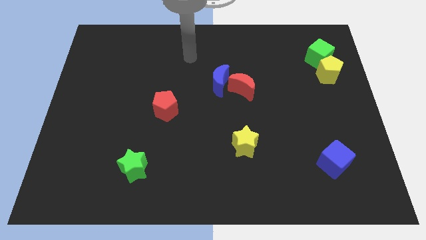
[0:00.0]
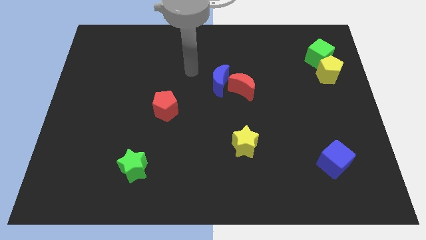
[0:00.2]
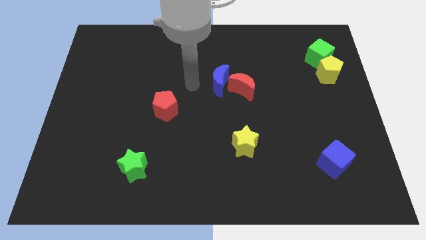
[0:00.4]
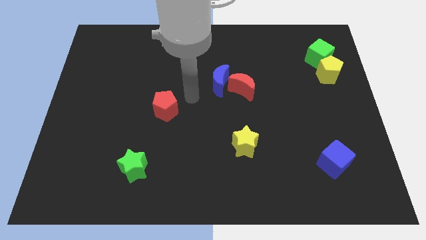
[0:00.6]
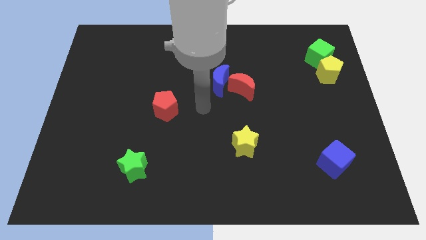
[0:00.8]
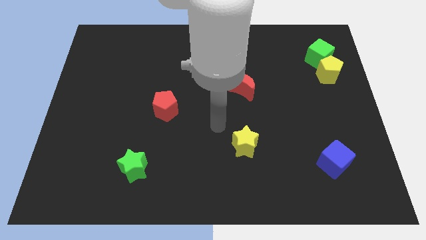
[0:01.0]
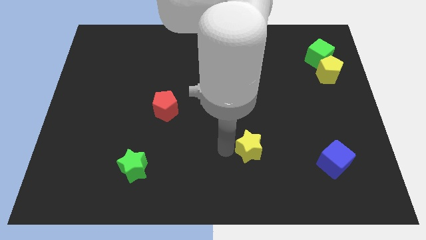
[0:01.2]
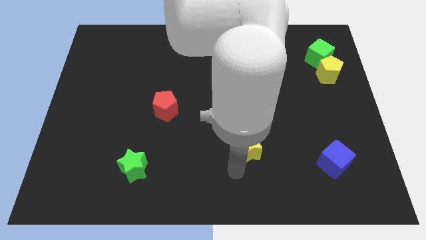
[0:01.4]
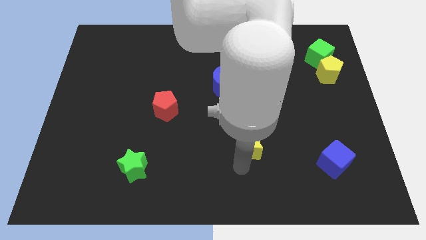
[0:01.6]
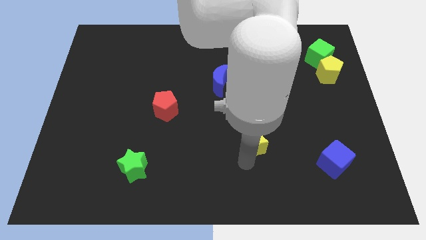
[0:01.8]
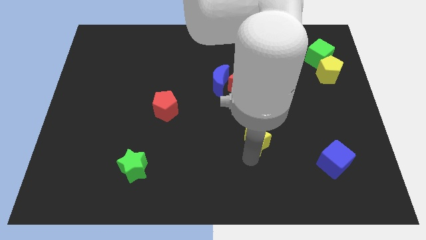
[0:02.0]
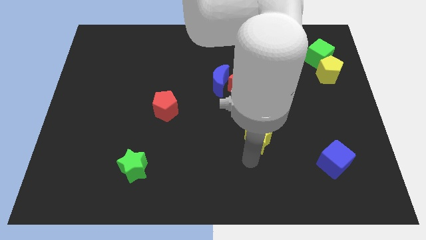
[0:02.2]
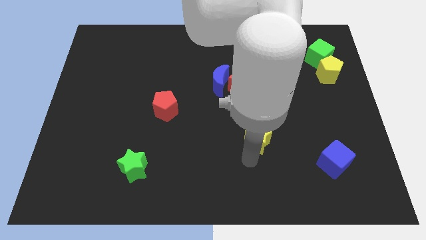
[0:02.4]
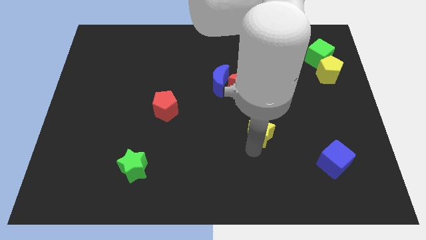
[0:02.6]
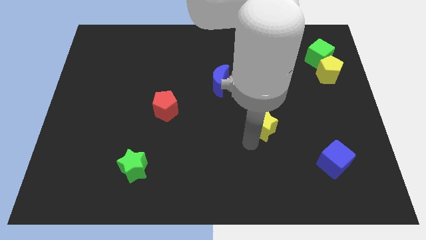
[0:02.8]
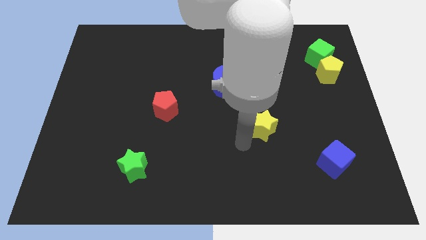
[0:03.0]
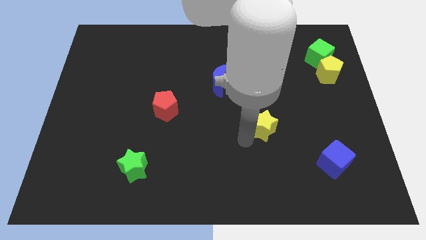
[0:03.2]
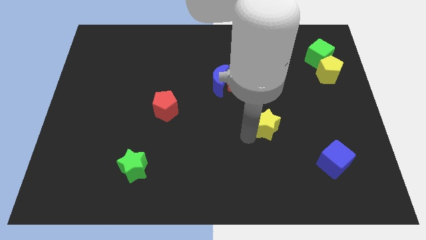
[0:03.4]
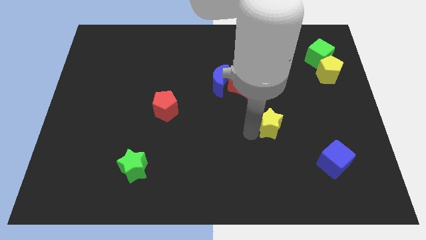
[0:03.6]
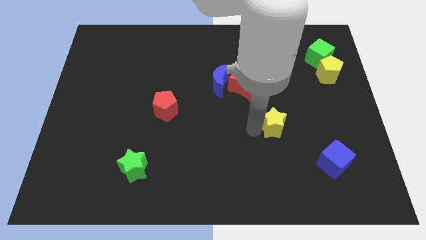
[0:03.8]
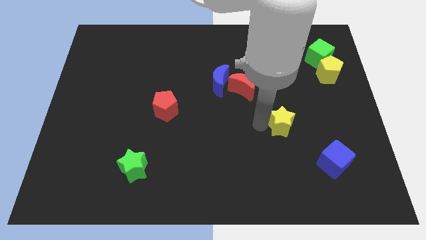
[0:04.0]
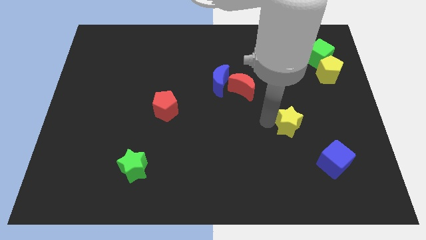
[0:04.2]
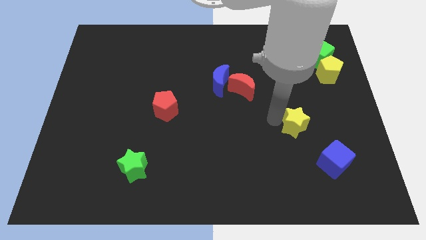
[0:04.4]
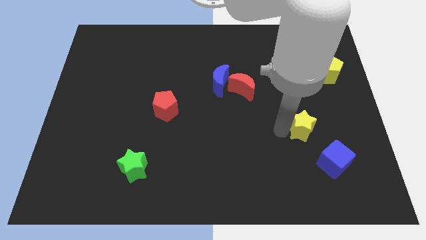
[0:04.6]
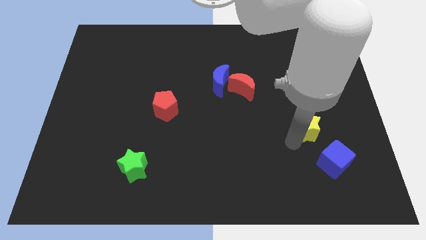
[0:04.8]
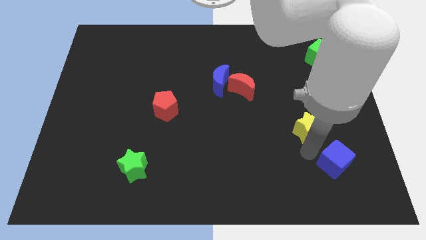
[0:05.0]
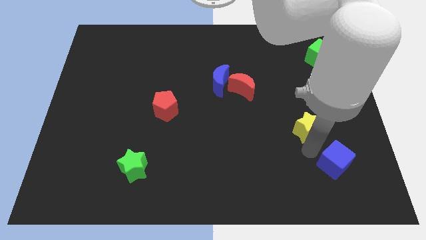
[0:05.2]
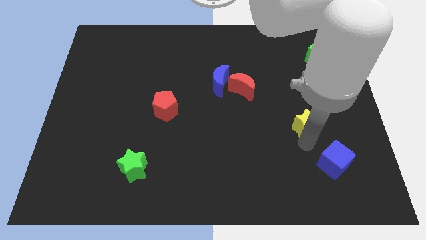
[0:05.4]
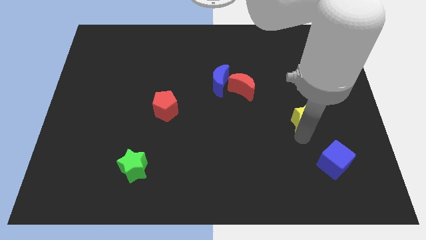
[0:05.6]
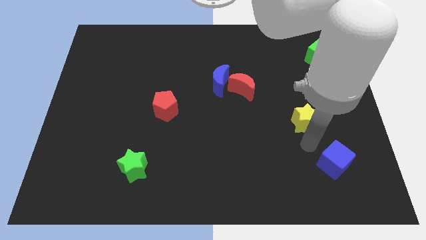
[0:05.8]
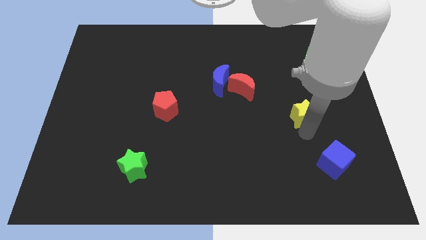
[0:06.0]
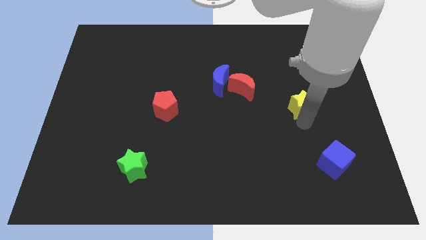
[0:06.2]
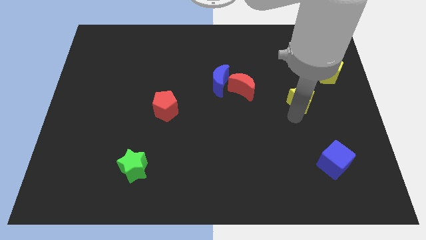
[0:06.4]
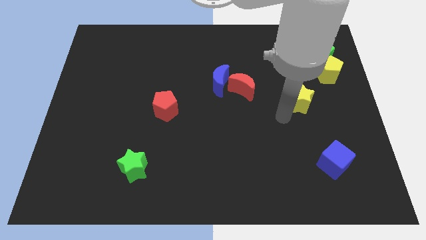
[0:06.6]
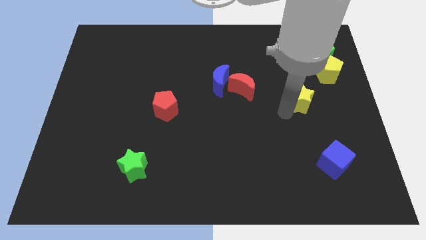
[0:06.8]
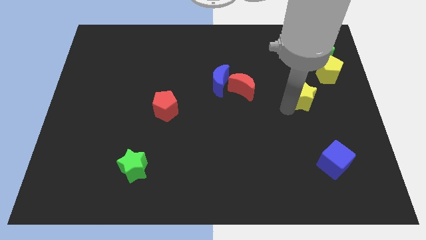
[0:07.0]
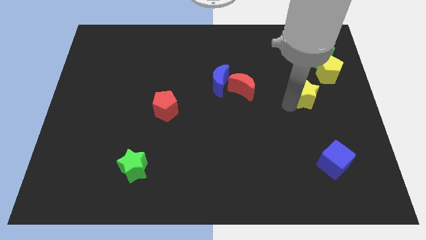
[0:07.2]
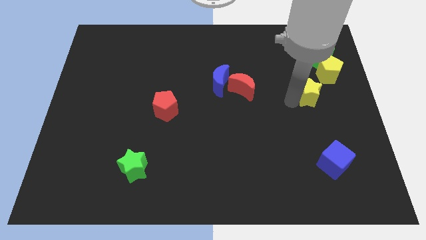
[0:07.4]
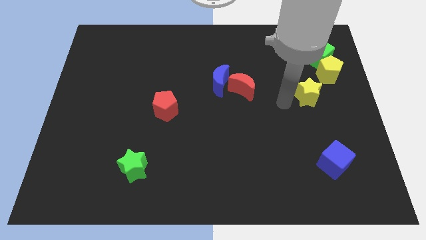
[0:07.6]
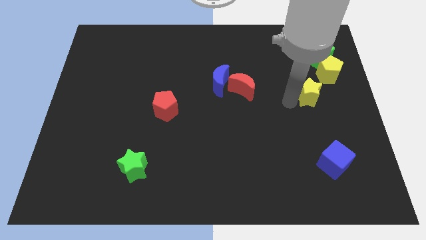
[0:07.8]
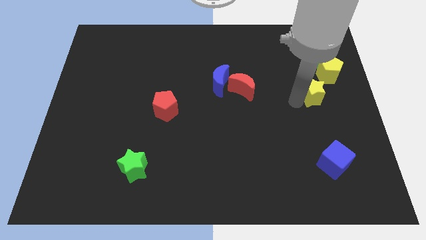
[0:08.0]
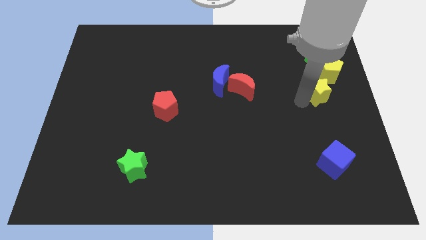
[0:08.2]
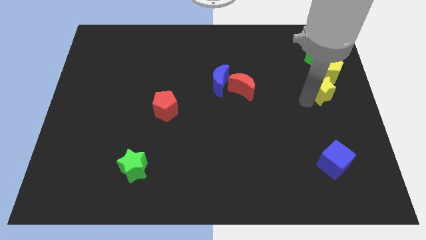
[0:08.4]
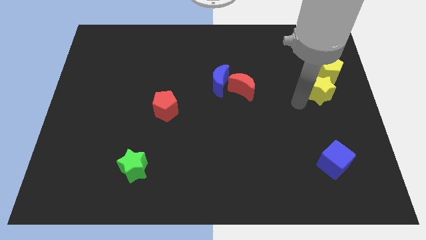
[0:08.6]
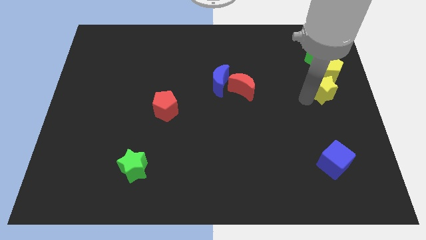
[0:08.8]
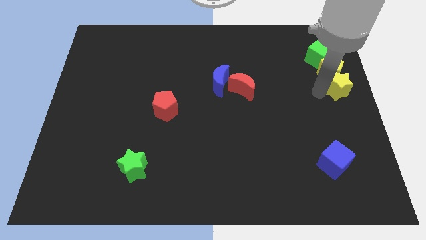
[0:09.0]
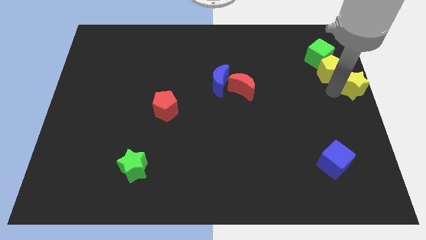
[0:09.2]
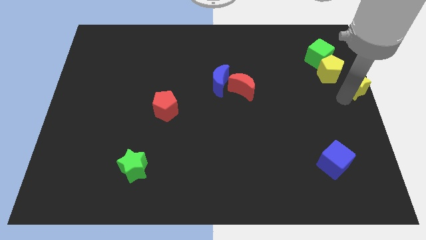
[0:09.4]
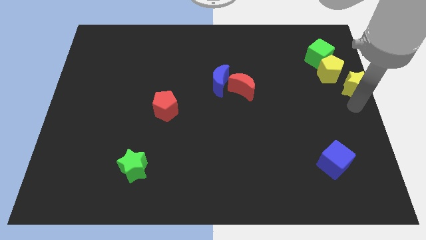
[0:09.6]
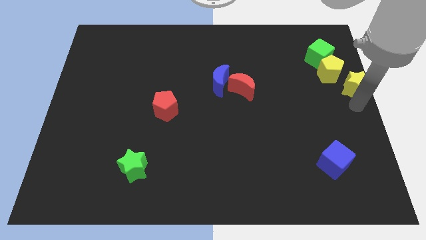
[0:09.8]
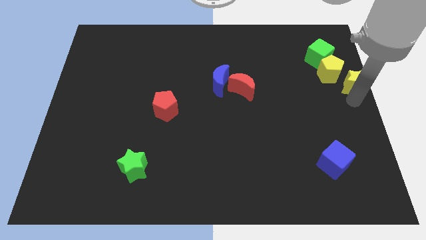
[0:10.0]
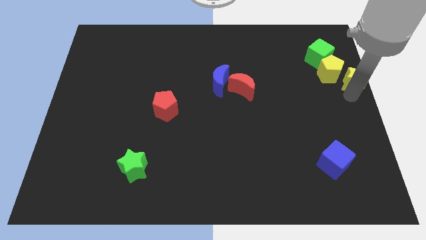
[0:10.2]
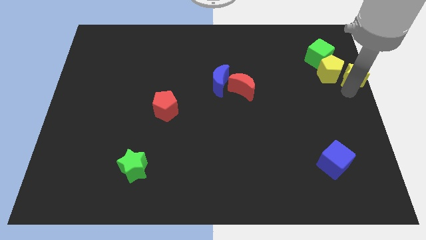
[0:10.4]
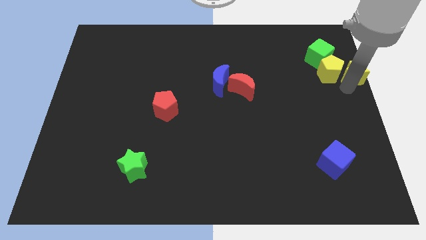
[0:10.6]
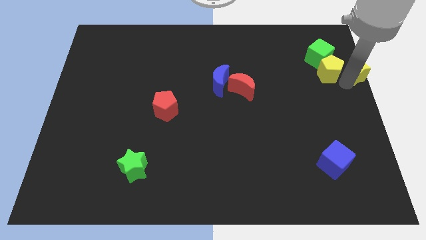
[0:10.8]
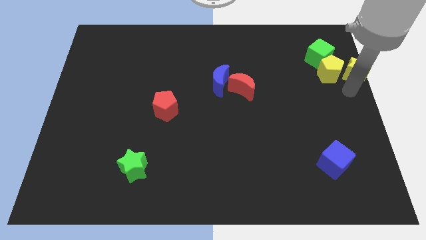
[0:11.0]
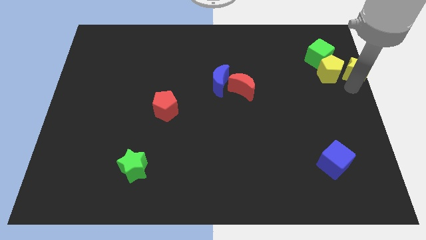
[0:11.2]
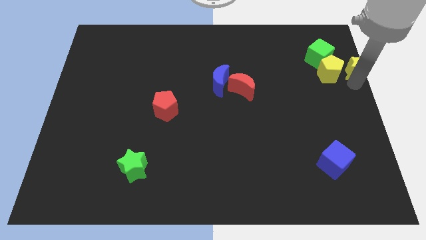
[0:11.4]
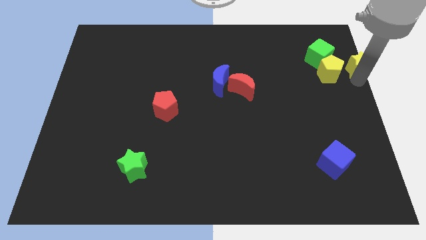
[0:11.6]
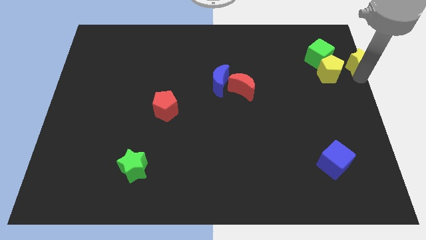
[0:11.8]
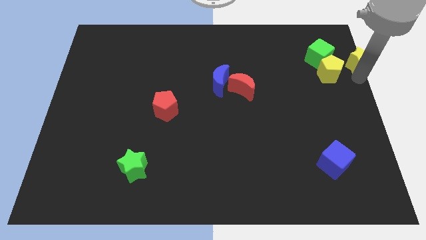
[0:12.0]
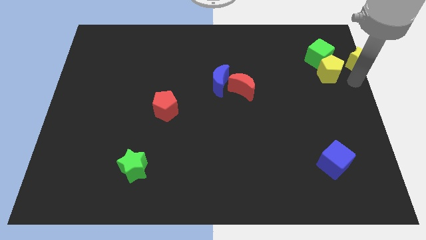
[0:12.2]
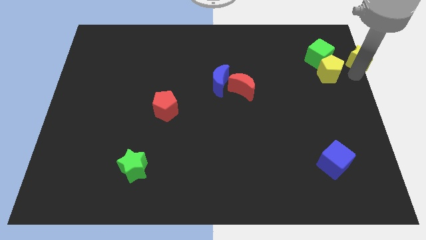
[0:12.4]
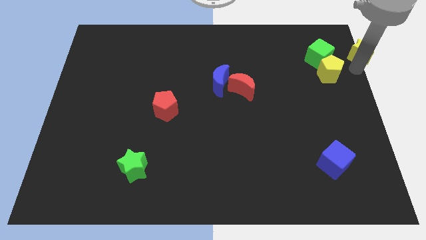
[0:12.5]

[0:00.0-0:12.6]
move the yellow star to the top right corner
